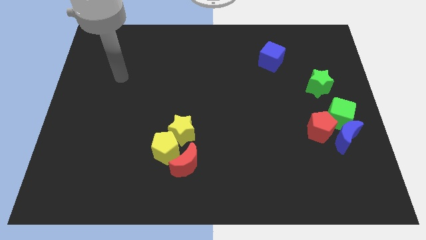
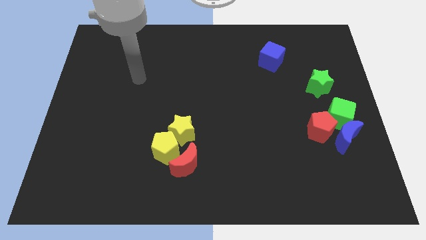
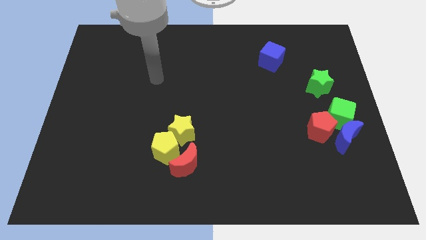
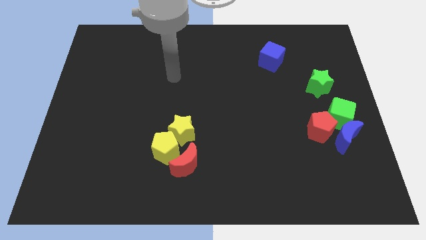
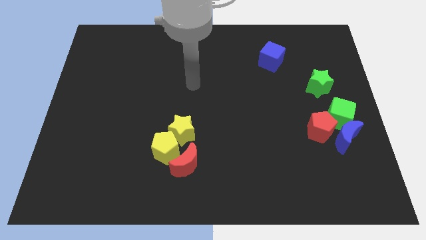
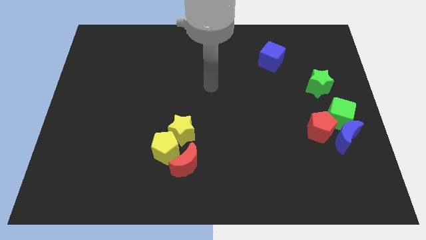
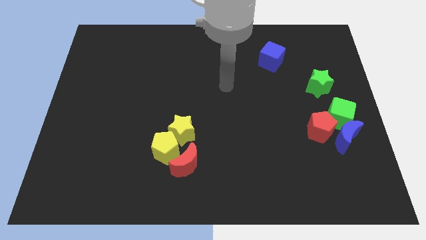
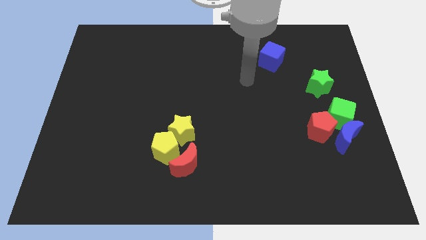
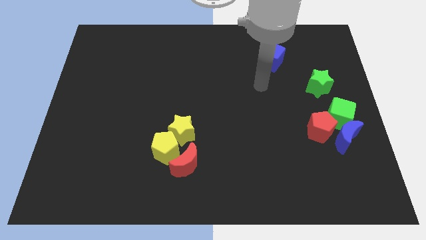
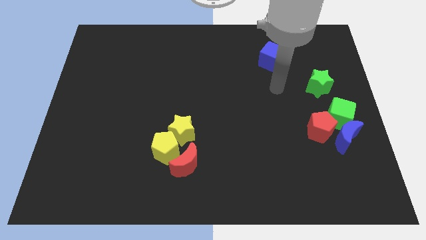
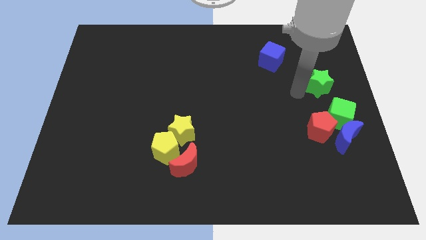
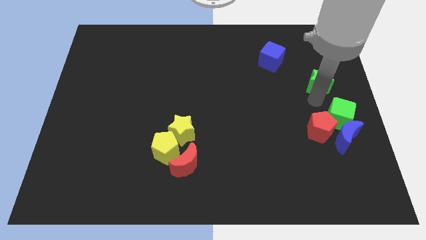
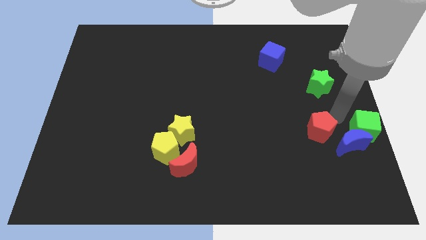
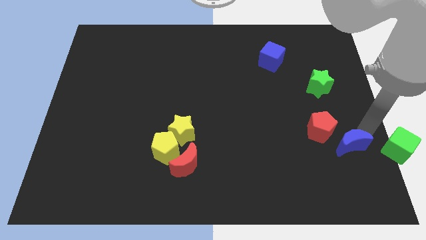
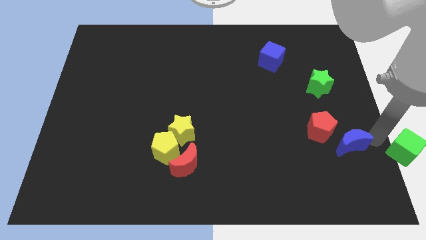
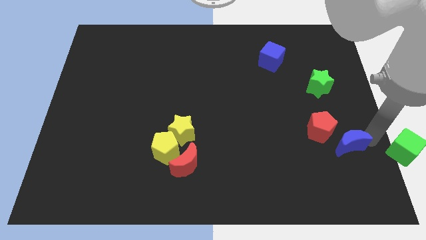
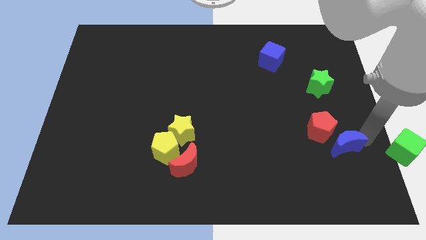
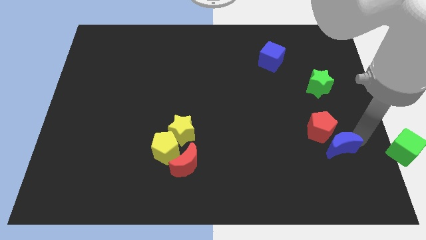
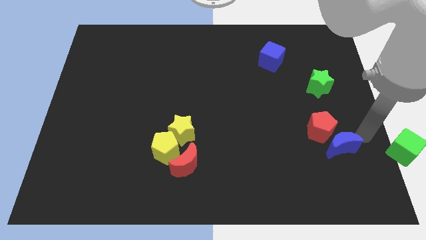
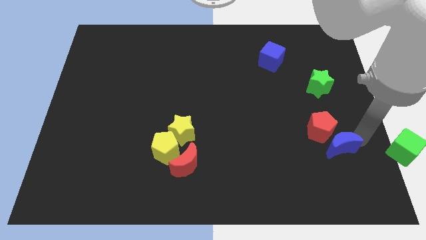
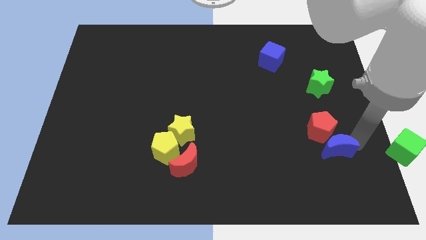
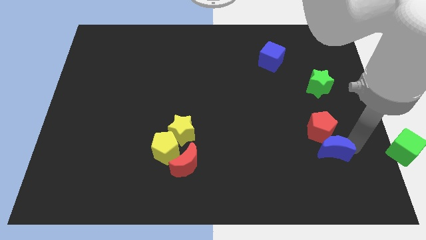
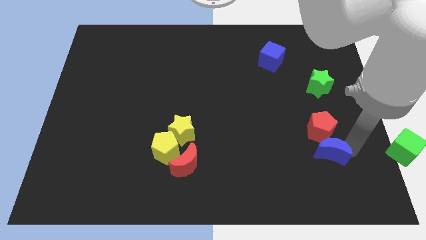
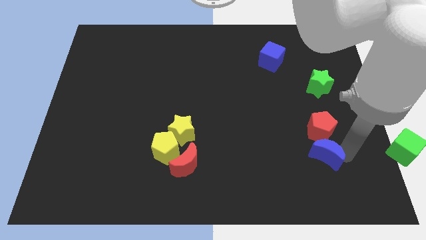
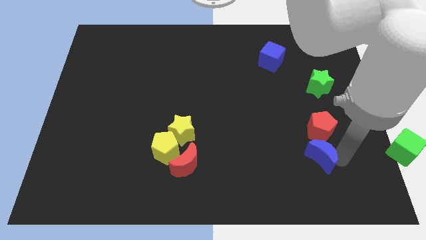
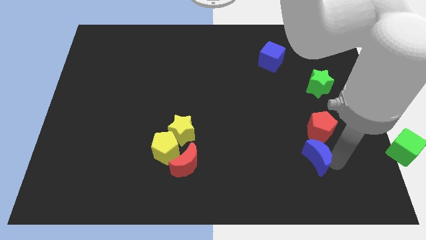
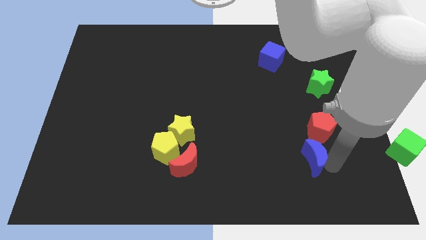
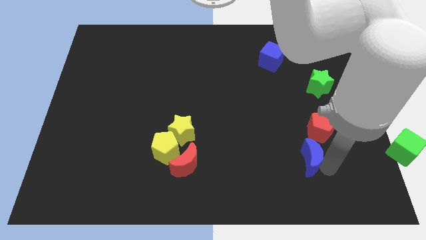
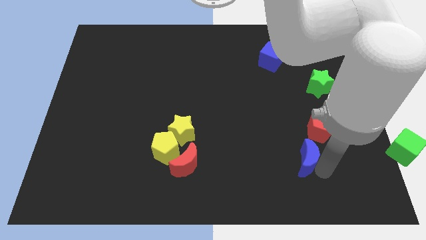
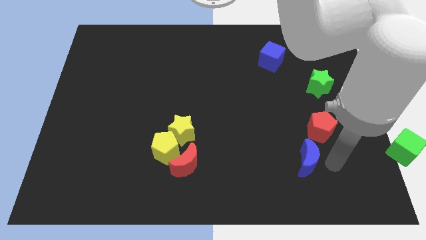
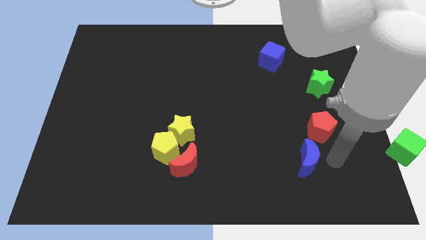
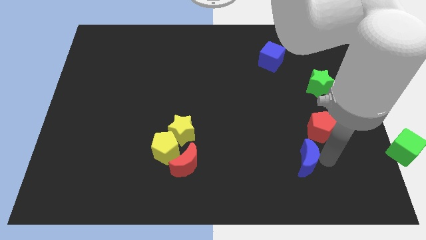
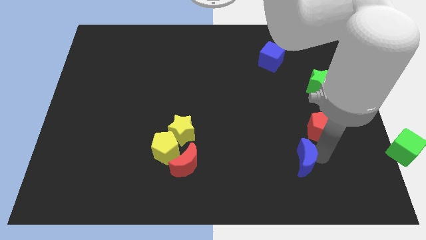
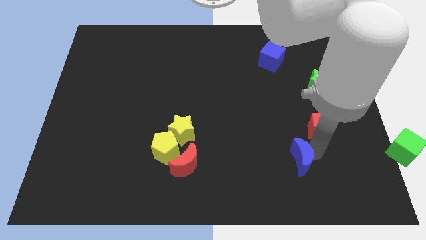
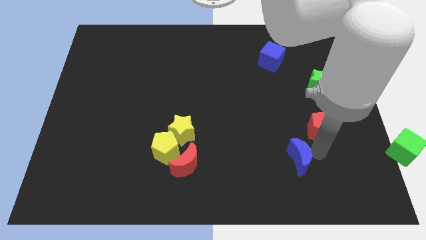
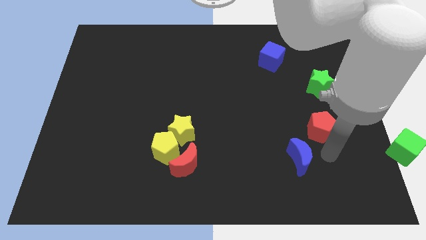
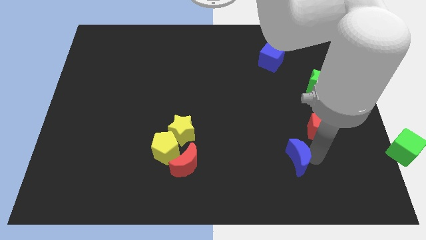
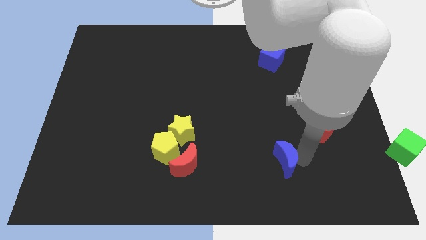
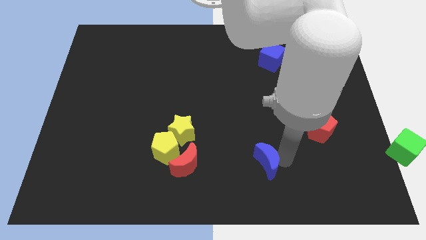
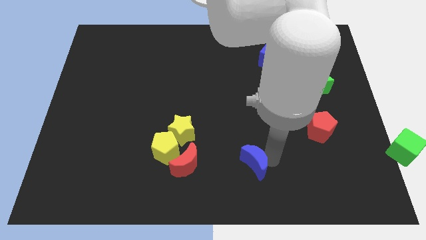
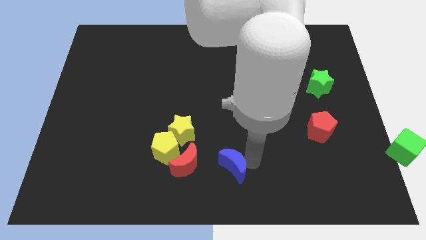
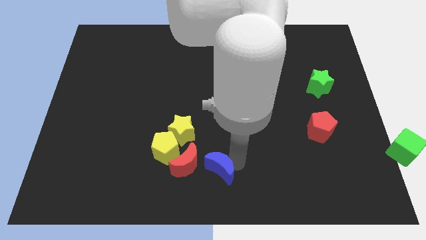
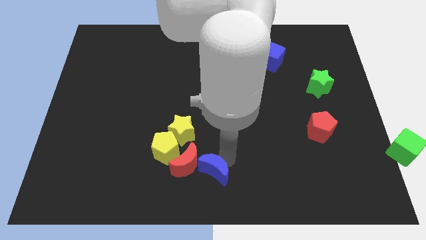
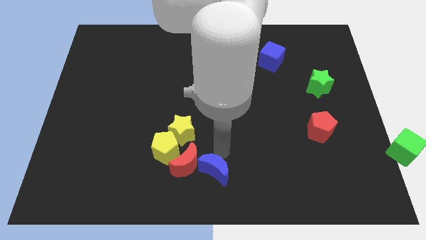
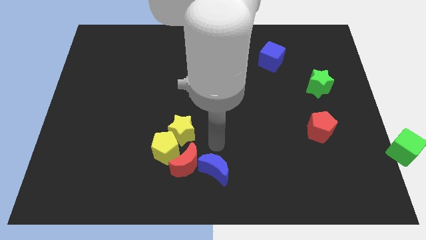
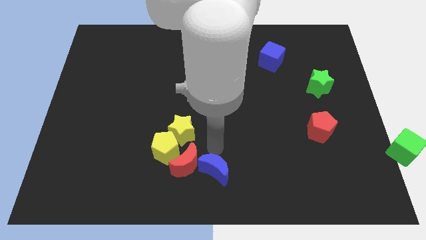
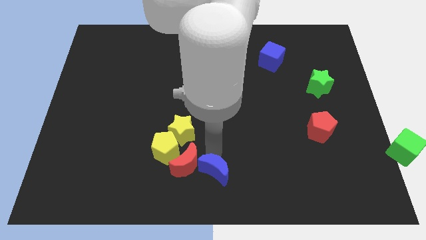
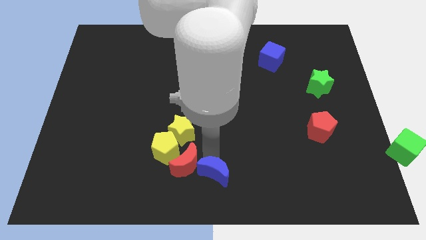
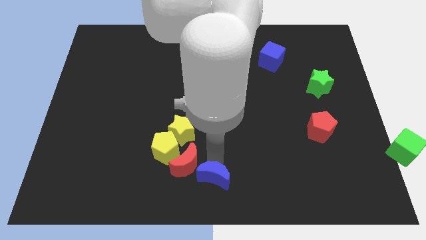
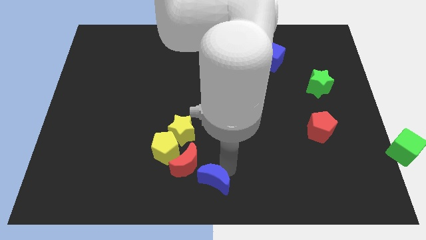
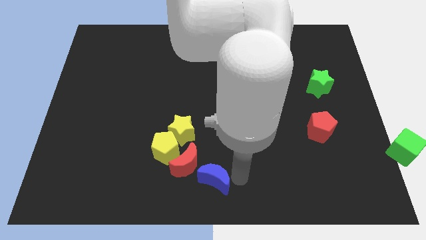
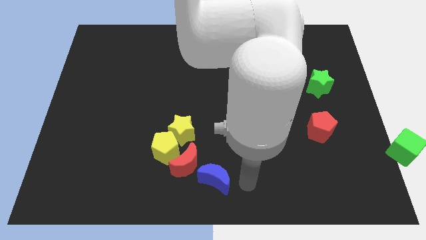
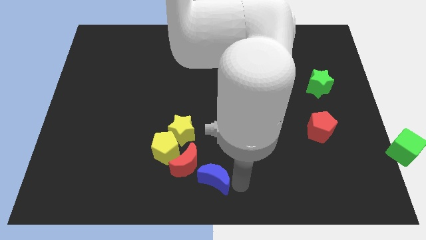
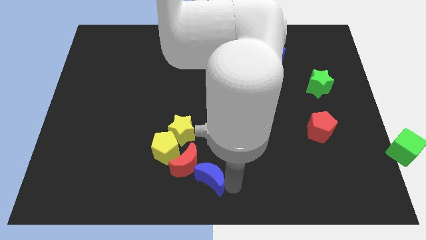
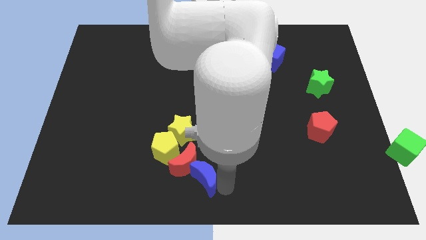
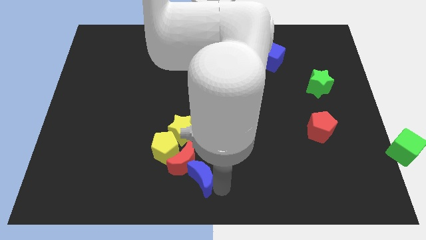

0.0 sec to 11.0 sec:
slide the blue moon to the bottom side of the yellow star

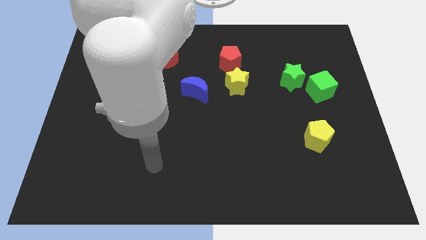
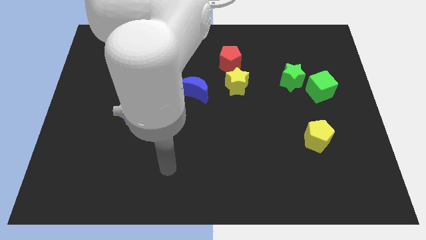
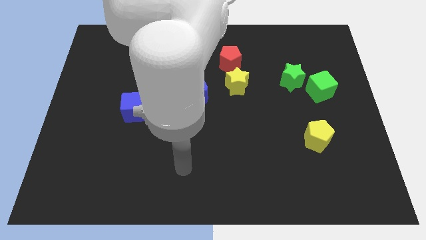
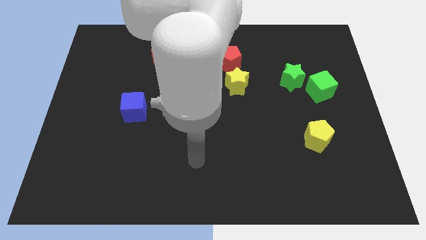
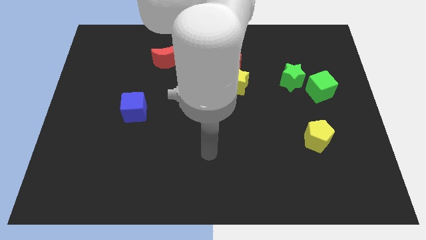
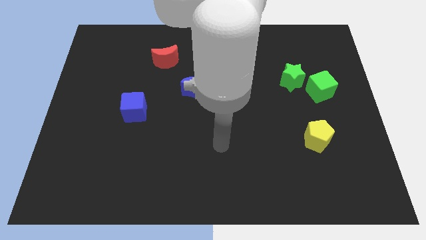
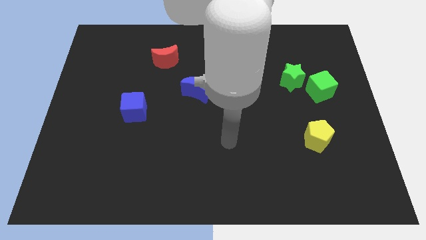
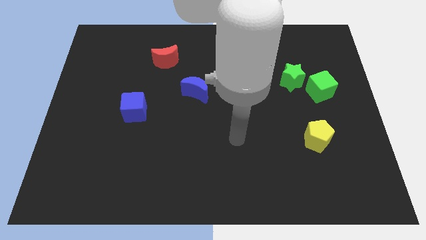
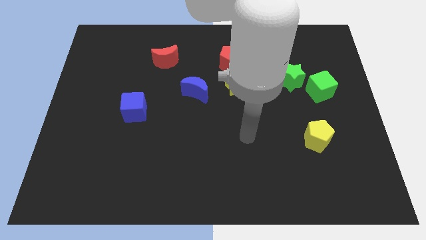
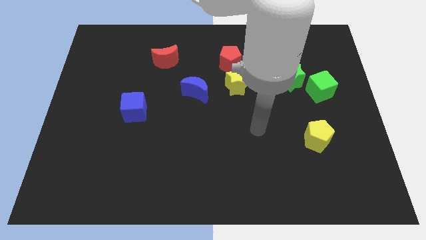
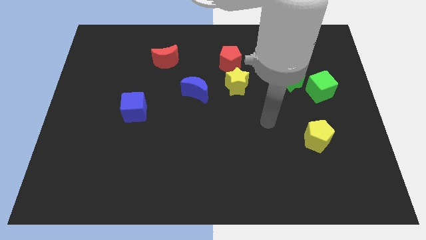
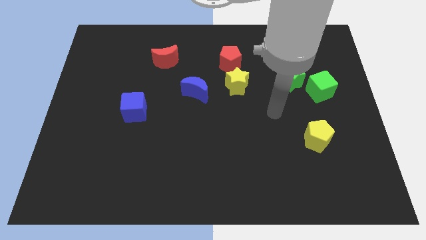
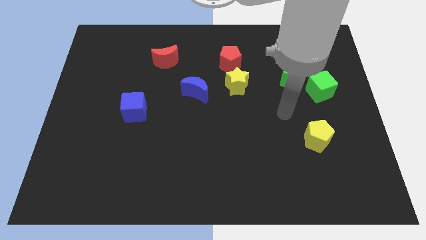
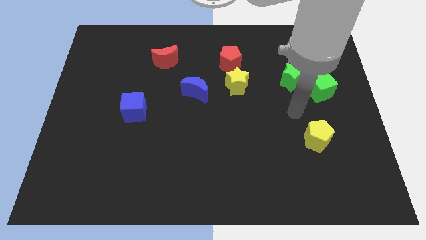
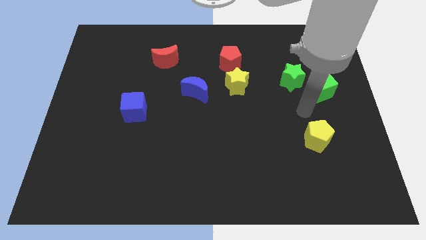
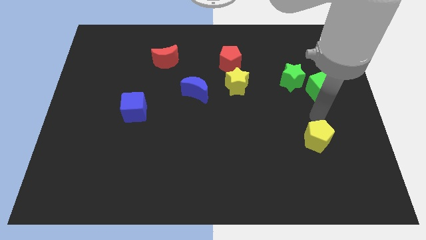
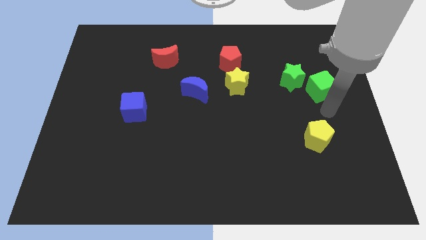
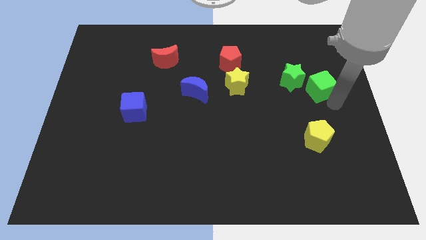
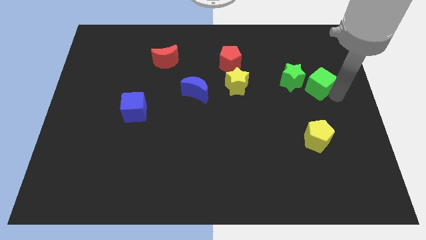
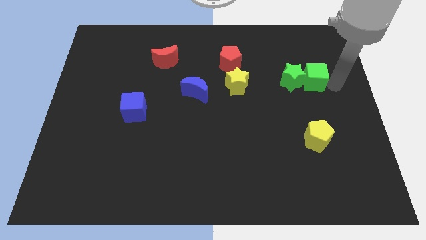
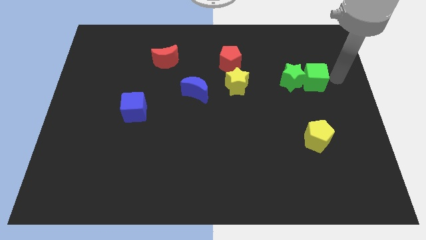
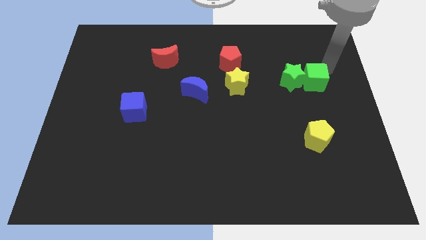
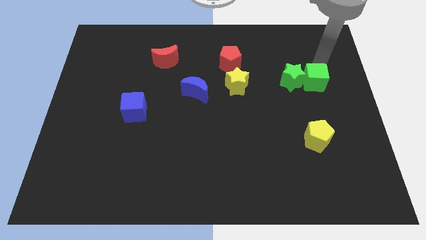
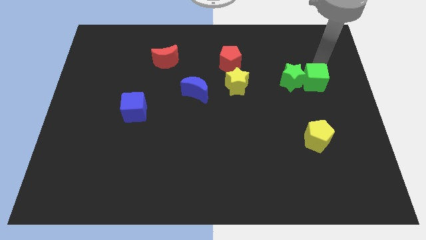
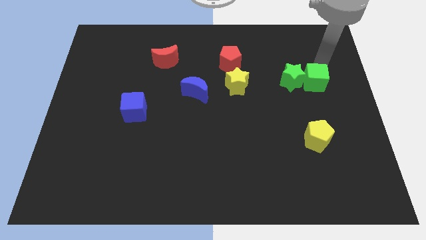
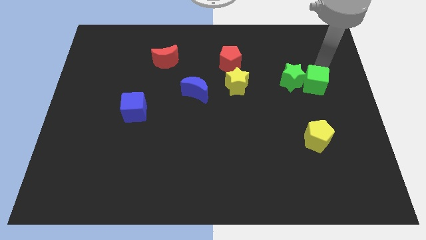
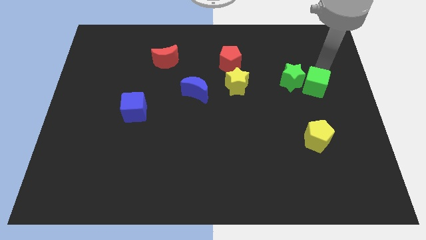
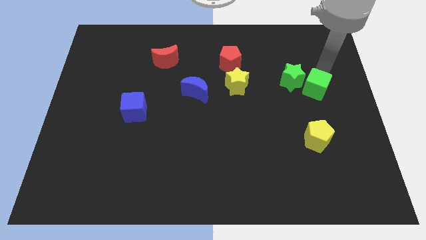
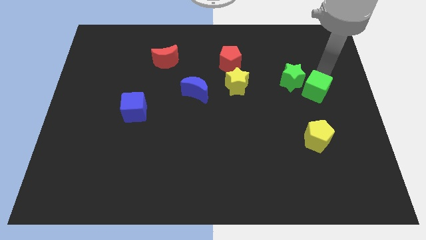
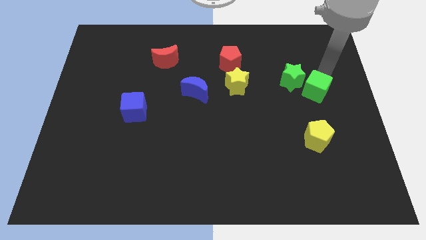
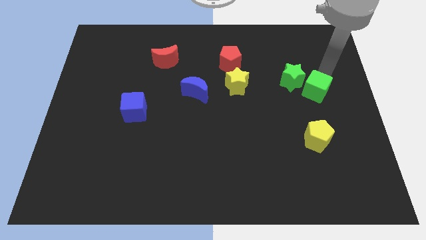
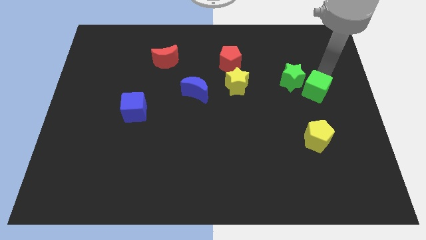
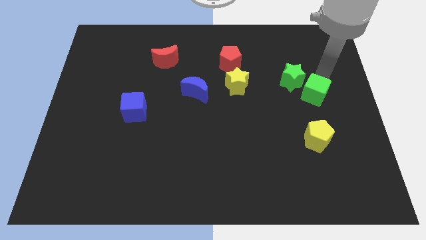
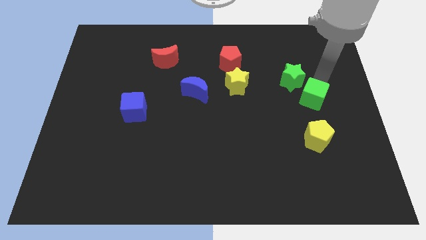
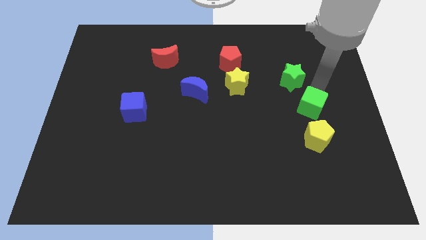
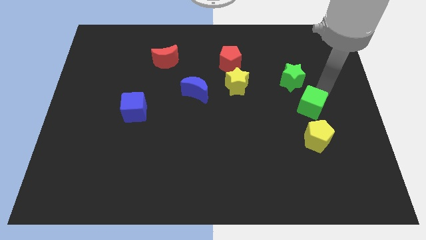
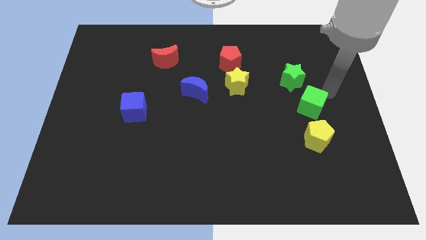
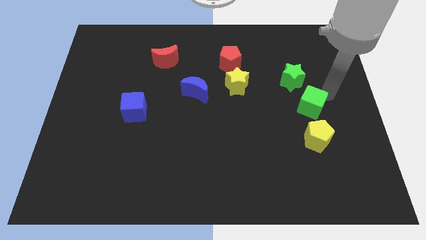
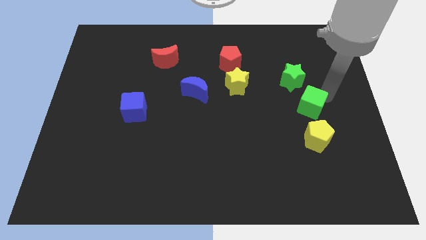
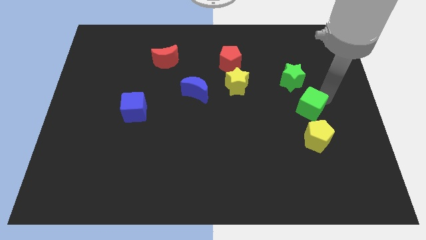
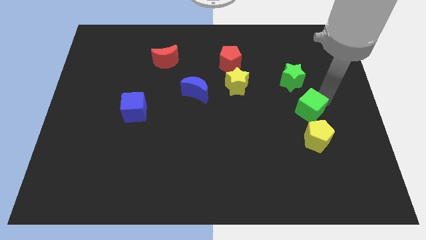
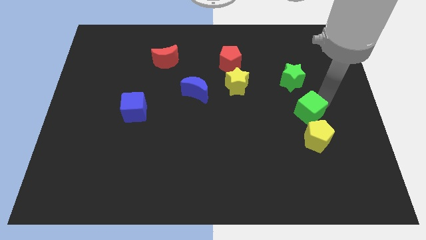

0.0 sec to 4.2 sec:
move the green cube to the top left of the yellow pentagon
